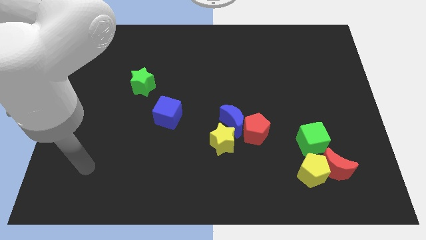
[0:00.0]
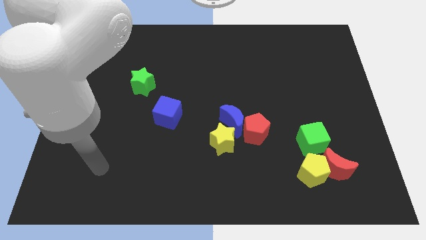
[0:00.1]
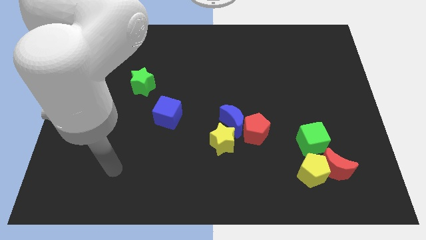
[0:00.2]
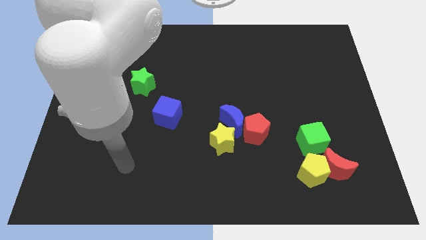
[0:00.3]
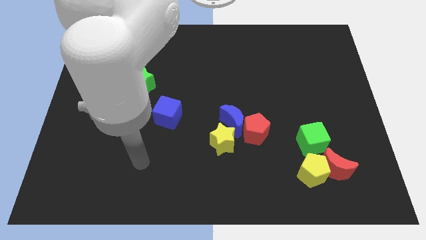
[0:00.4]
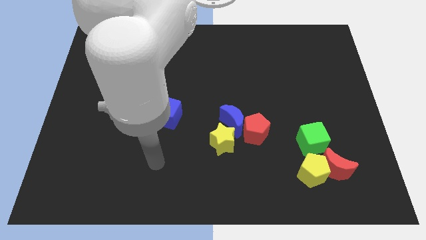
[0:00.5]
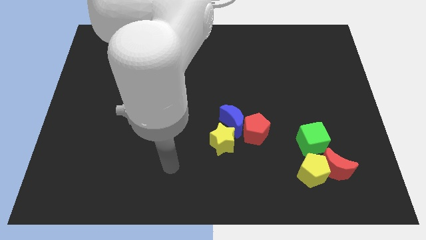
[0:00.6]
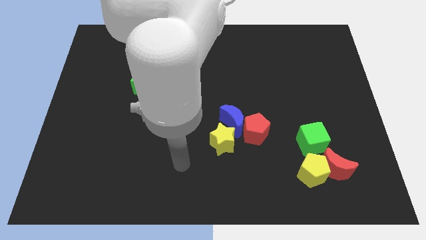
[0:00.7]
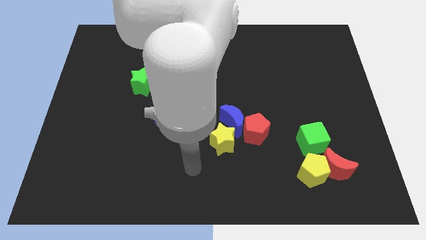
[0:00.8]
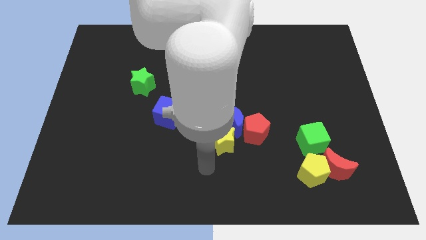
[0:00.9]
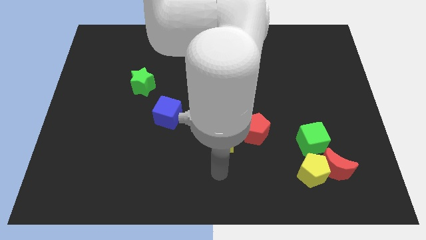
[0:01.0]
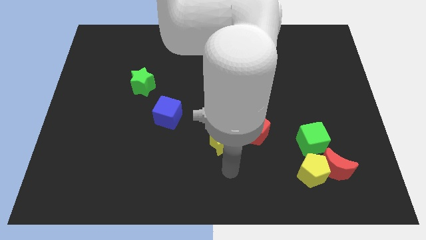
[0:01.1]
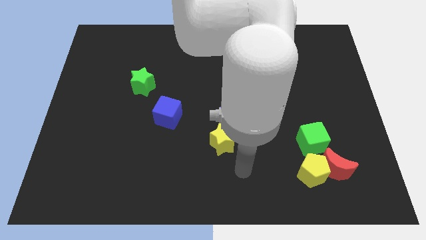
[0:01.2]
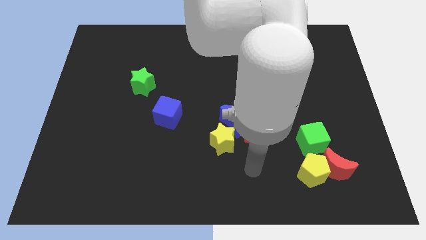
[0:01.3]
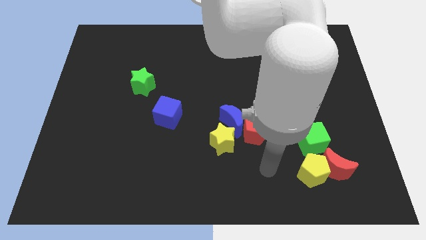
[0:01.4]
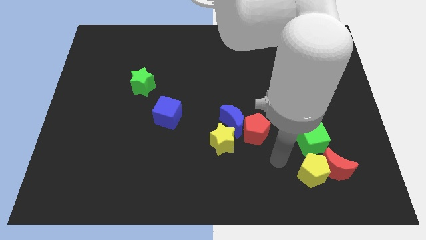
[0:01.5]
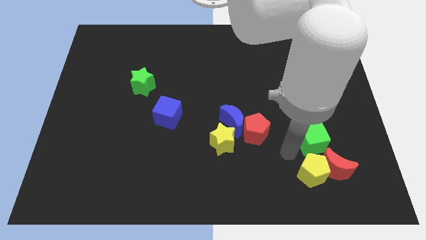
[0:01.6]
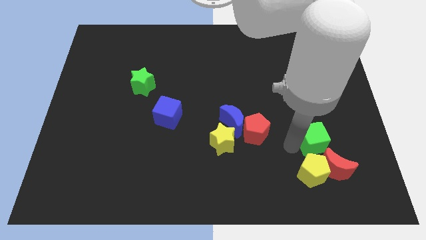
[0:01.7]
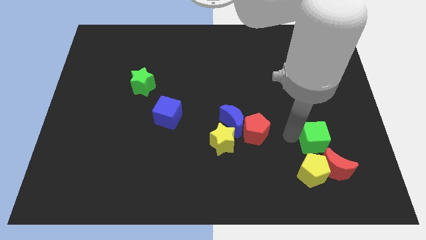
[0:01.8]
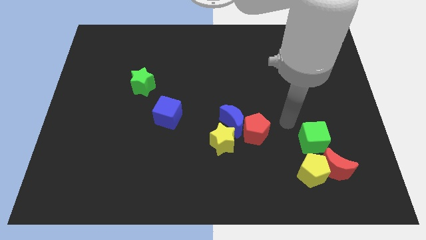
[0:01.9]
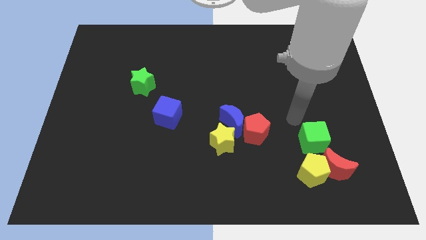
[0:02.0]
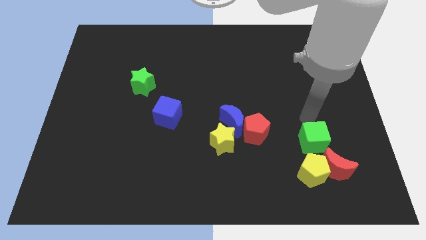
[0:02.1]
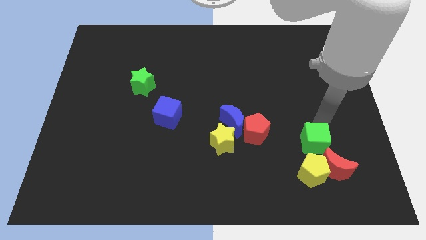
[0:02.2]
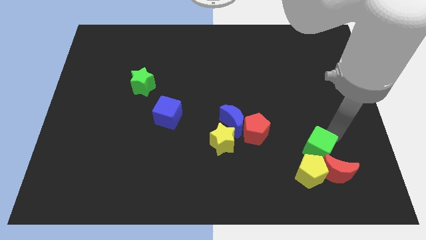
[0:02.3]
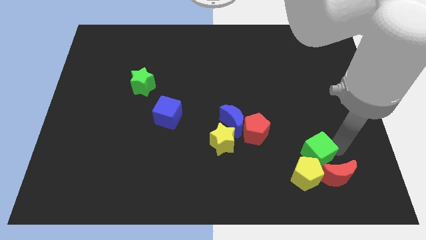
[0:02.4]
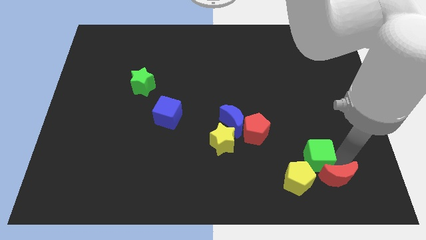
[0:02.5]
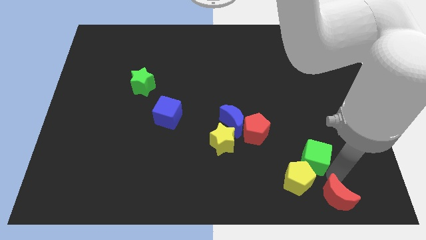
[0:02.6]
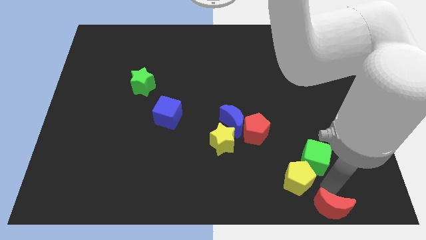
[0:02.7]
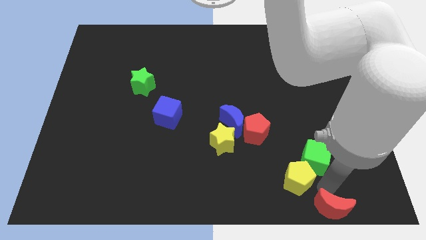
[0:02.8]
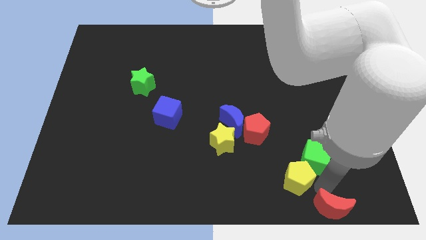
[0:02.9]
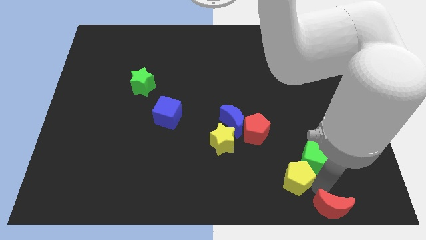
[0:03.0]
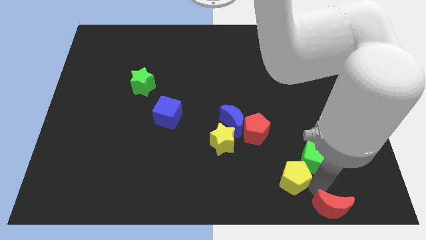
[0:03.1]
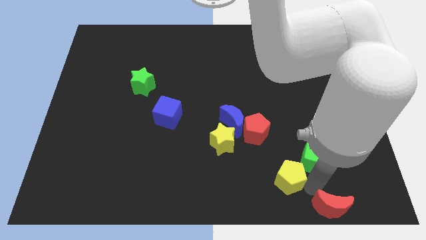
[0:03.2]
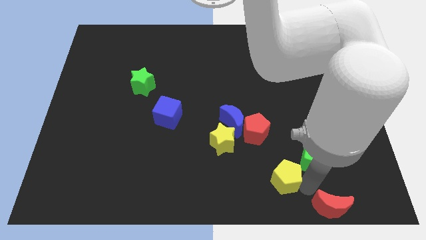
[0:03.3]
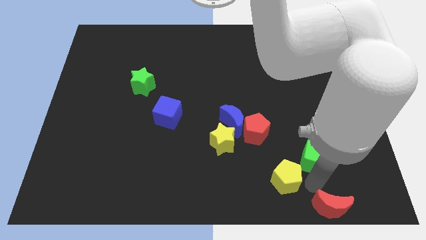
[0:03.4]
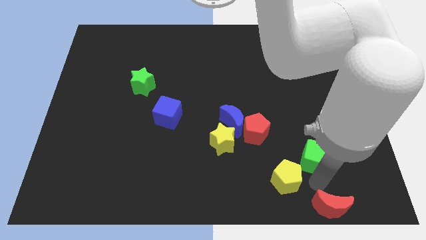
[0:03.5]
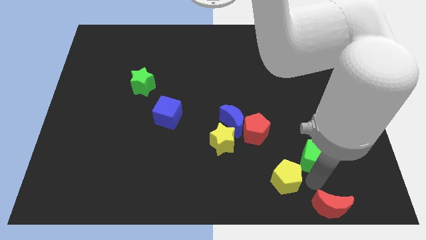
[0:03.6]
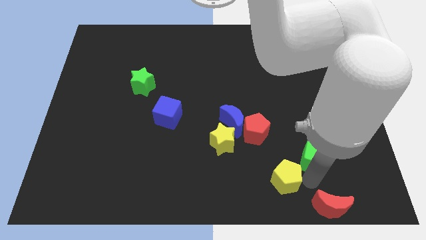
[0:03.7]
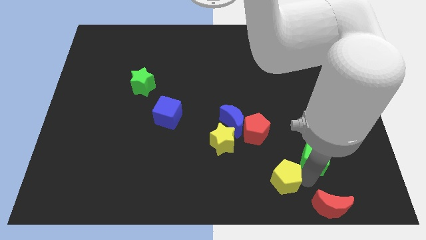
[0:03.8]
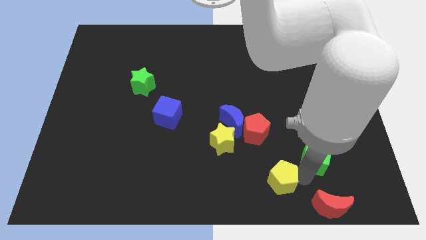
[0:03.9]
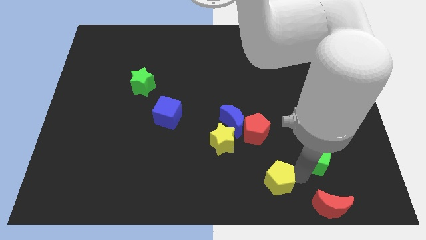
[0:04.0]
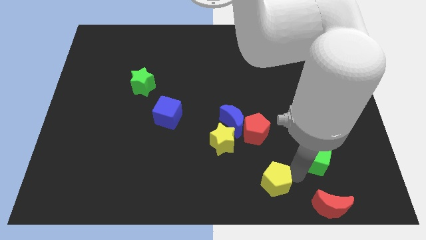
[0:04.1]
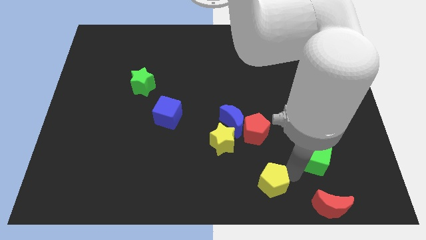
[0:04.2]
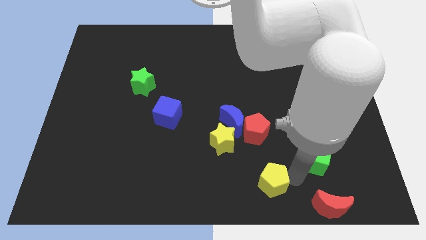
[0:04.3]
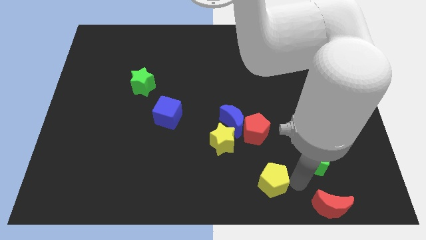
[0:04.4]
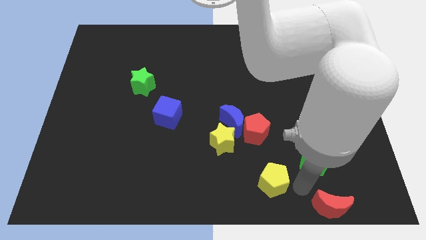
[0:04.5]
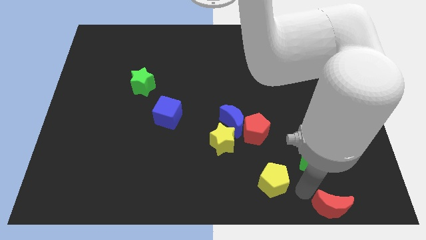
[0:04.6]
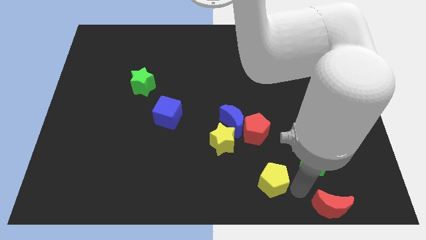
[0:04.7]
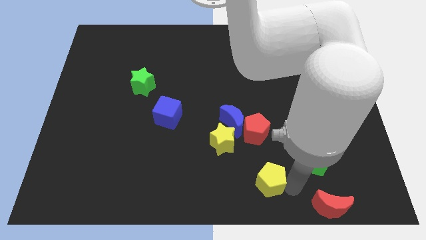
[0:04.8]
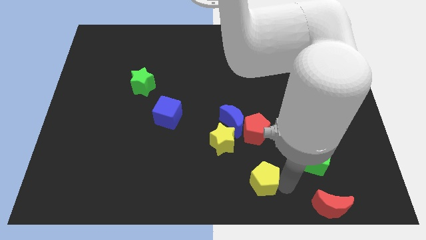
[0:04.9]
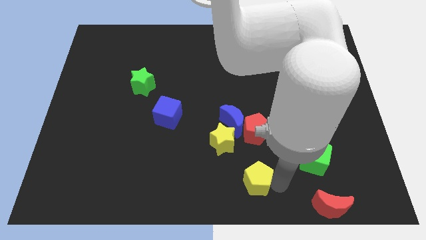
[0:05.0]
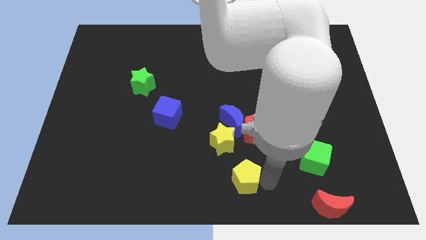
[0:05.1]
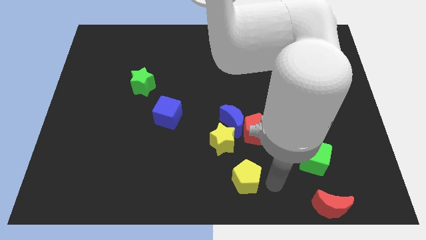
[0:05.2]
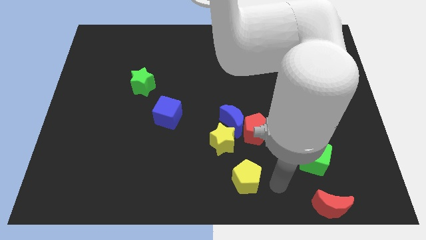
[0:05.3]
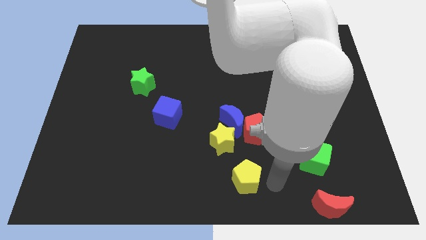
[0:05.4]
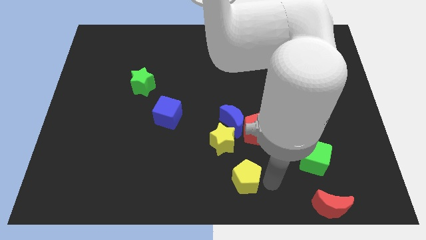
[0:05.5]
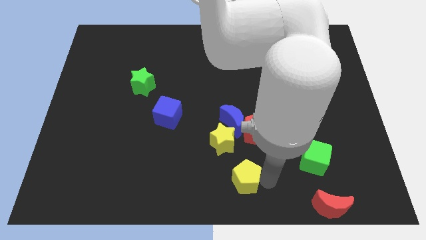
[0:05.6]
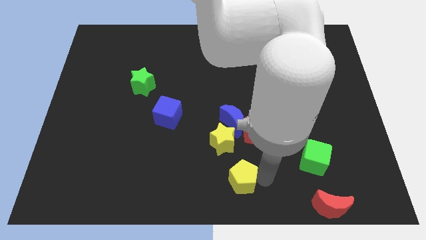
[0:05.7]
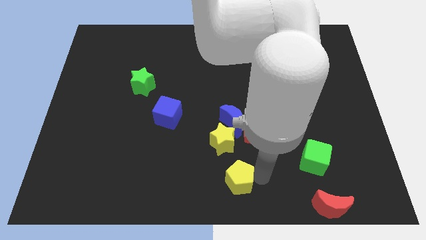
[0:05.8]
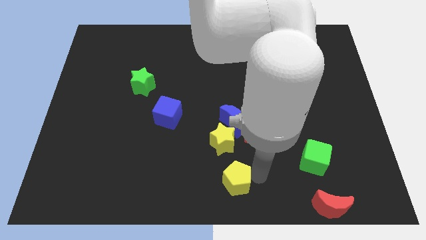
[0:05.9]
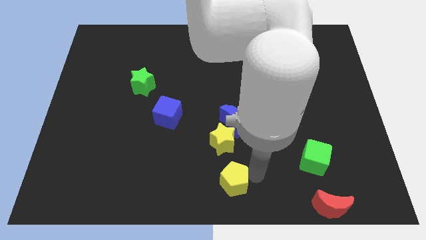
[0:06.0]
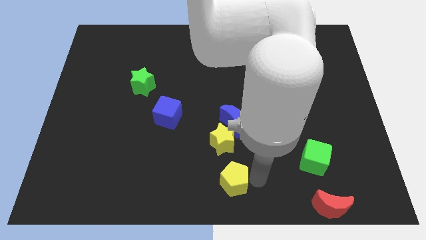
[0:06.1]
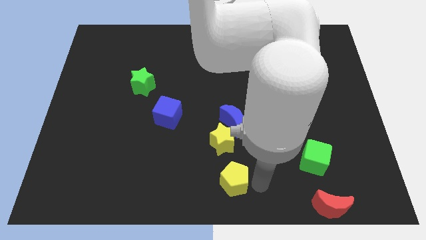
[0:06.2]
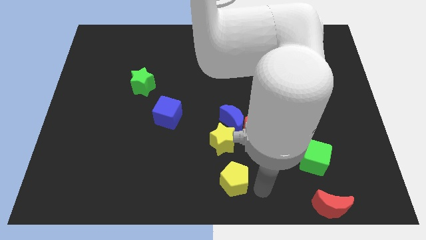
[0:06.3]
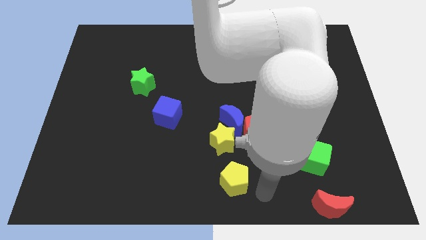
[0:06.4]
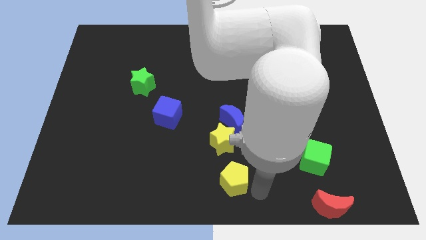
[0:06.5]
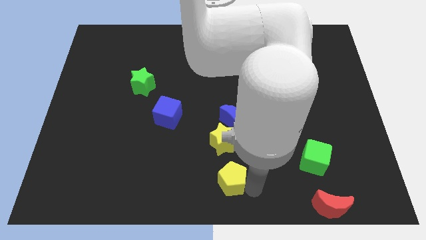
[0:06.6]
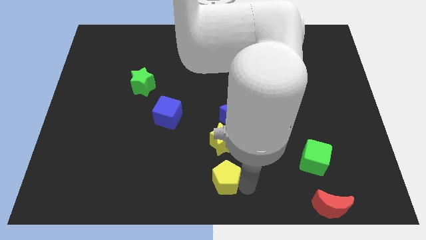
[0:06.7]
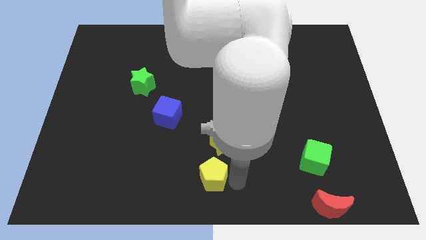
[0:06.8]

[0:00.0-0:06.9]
slide the yellow pentagon left

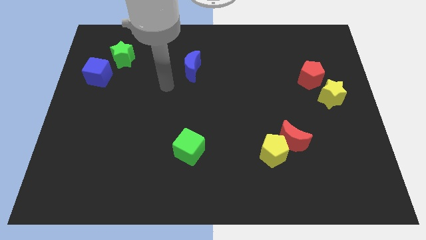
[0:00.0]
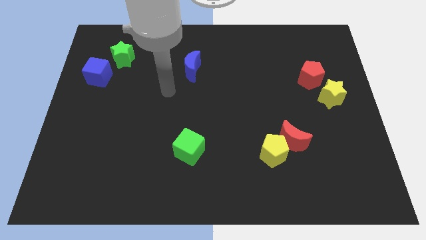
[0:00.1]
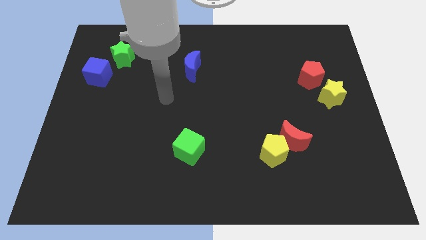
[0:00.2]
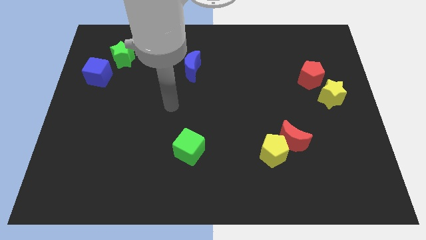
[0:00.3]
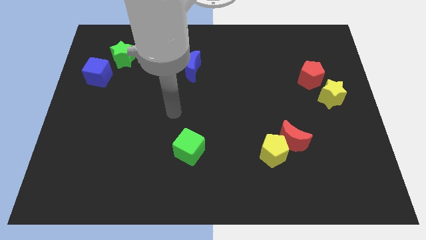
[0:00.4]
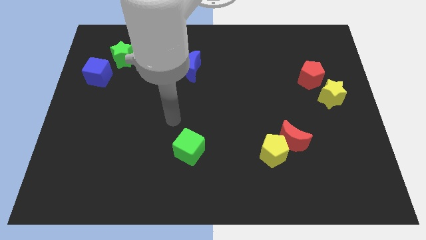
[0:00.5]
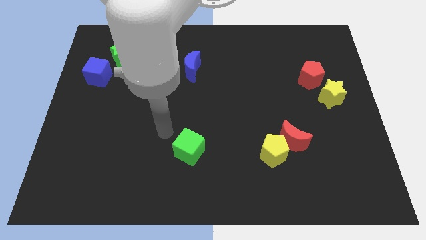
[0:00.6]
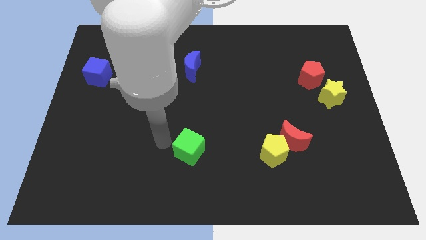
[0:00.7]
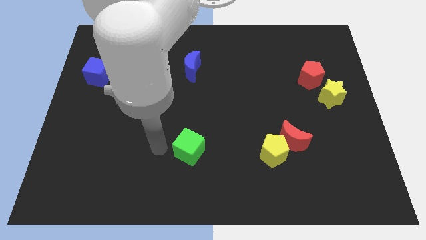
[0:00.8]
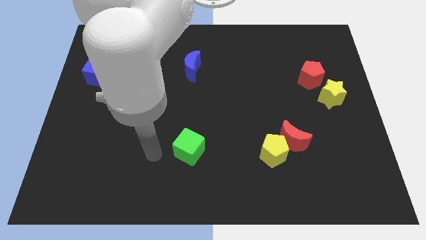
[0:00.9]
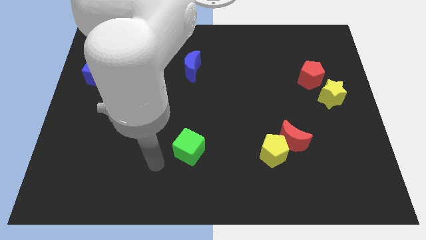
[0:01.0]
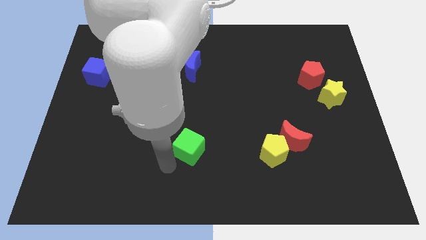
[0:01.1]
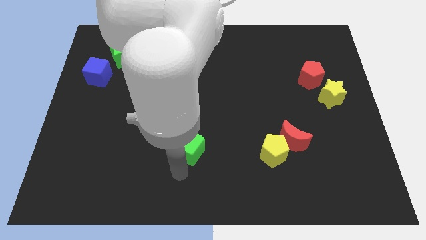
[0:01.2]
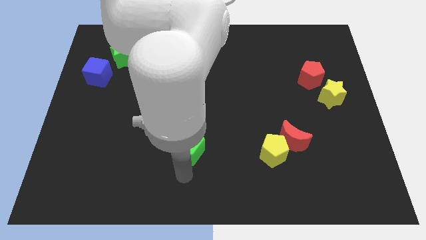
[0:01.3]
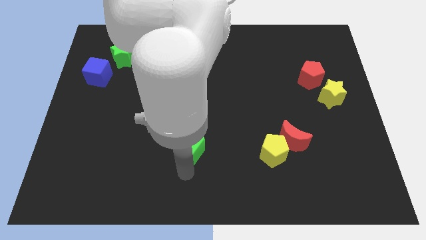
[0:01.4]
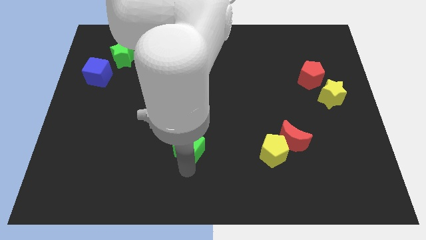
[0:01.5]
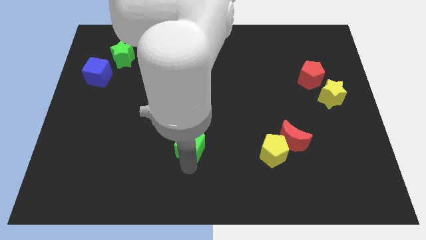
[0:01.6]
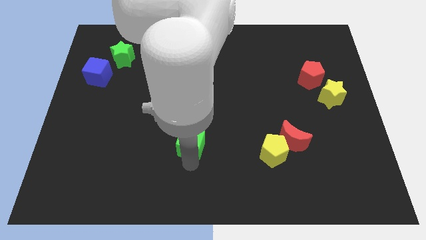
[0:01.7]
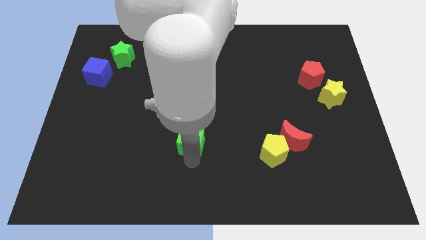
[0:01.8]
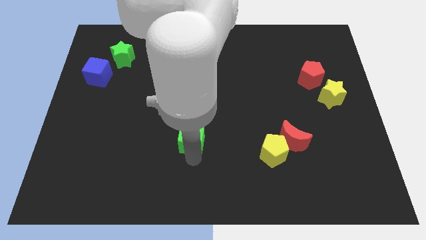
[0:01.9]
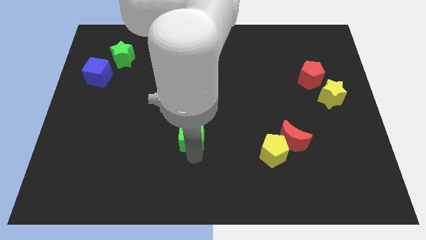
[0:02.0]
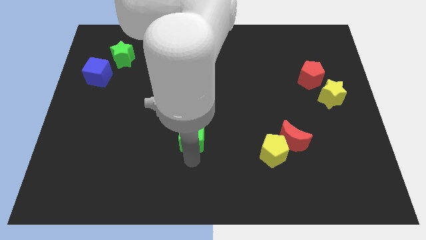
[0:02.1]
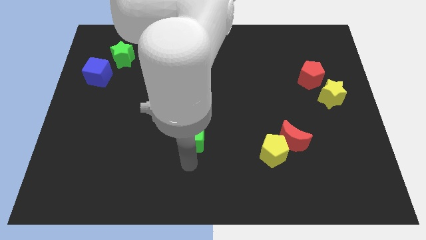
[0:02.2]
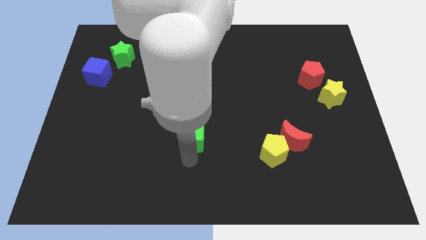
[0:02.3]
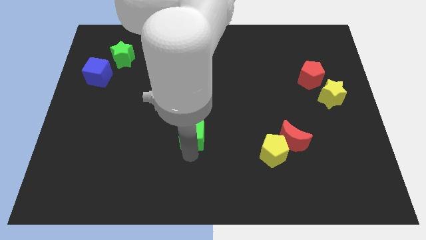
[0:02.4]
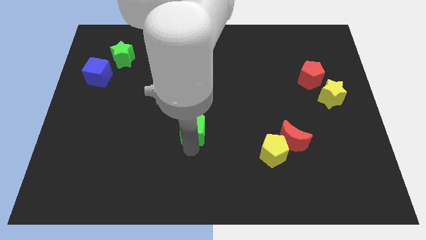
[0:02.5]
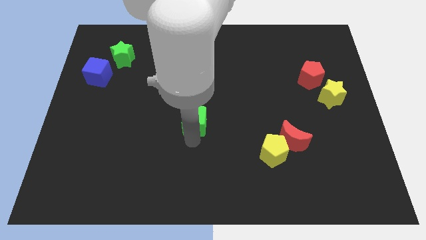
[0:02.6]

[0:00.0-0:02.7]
push the green cube a bit upwards
